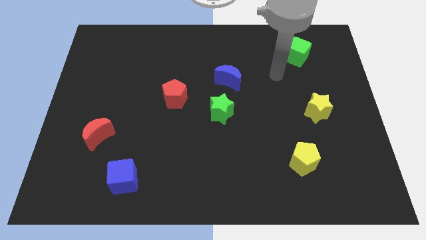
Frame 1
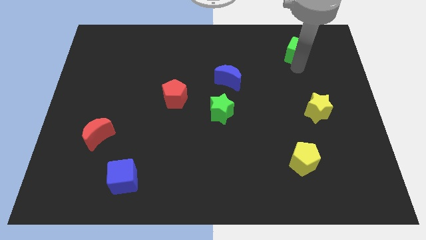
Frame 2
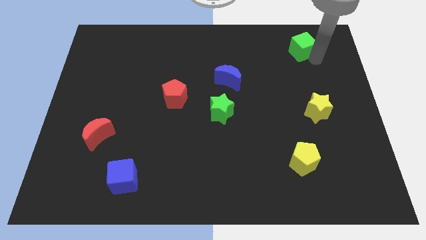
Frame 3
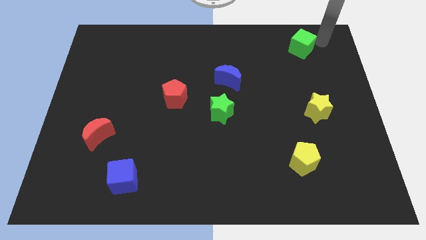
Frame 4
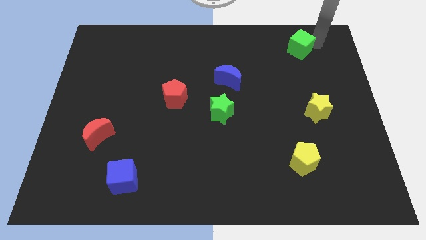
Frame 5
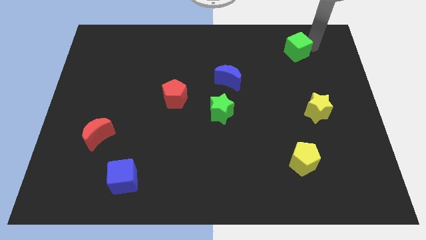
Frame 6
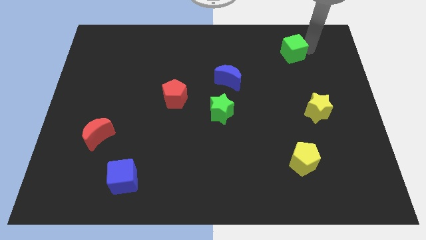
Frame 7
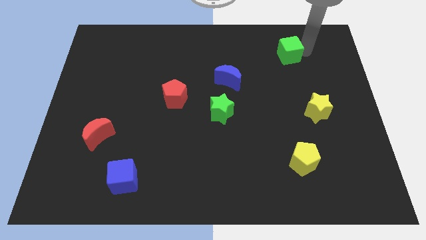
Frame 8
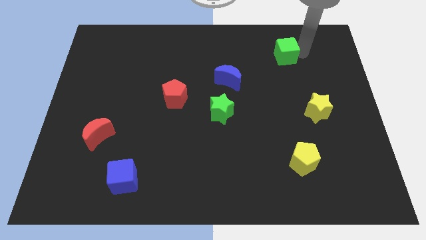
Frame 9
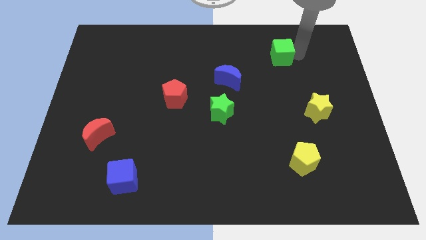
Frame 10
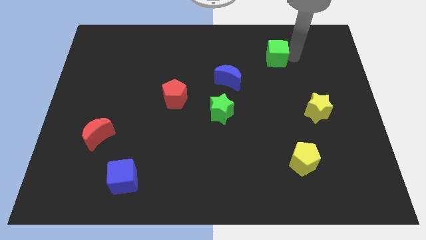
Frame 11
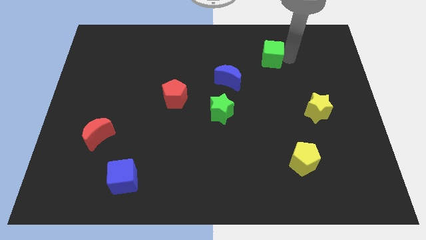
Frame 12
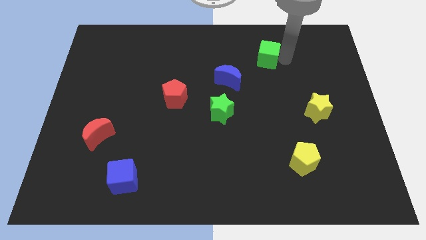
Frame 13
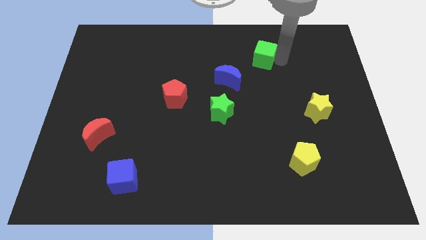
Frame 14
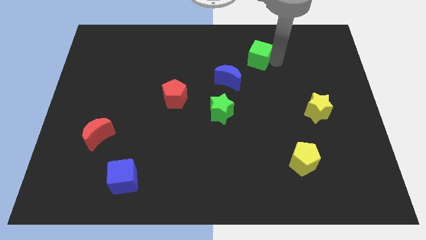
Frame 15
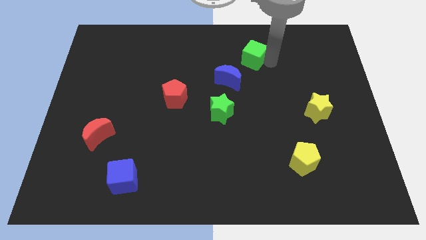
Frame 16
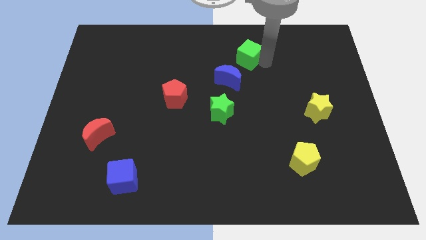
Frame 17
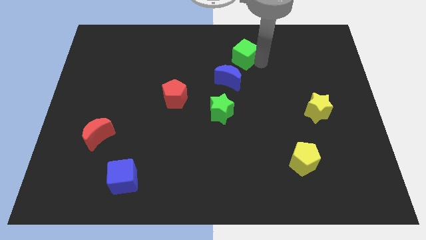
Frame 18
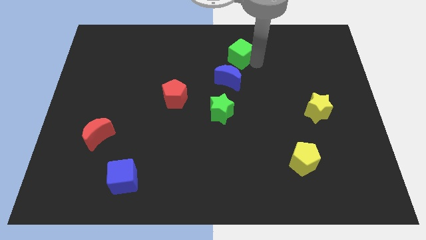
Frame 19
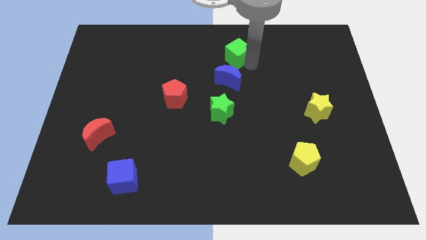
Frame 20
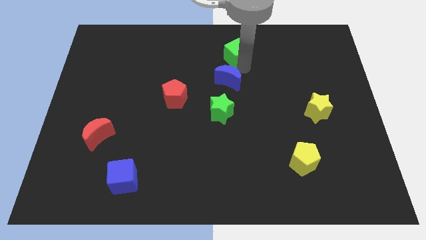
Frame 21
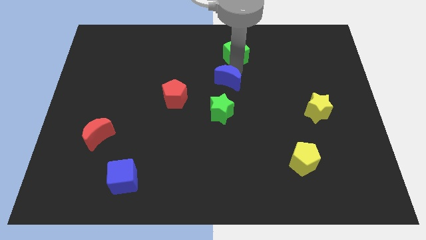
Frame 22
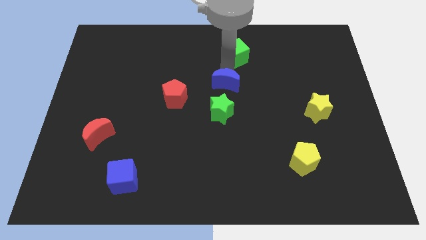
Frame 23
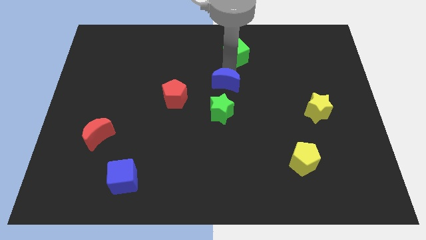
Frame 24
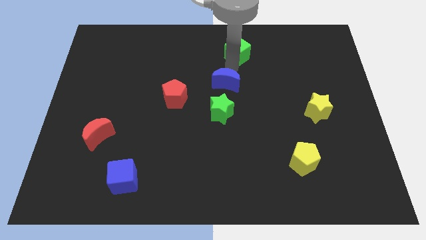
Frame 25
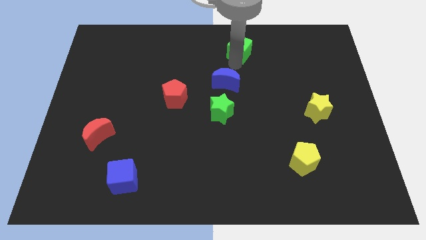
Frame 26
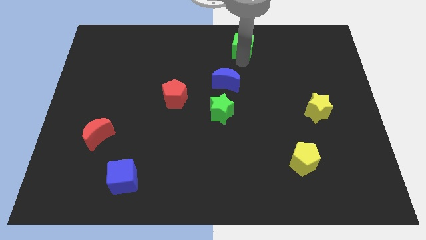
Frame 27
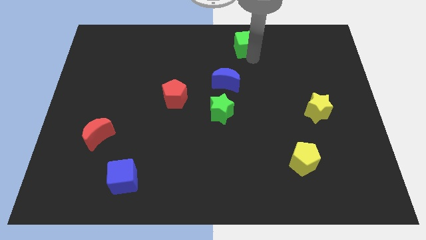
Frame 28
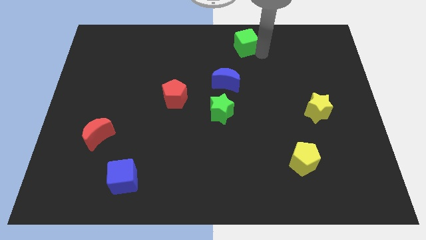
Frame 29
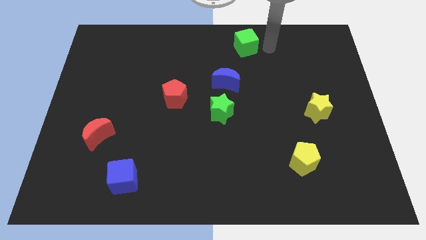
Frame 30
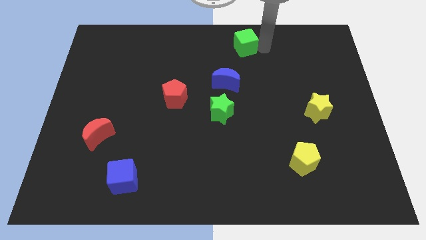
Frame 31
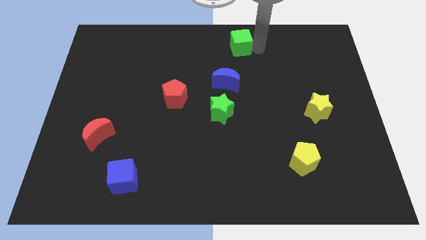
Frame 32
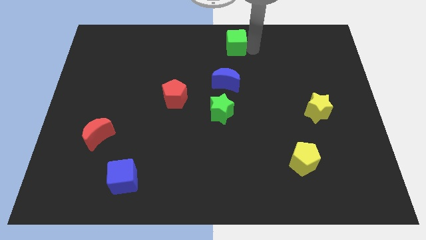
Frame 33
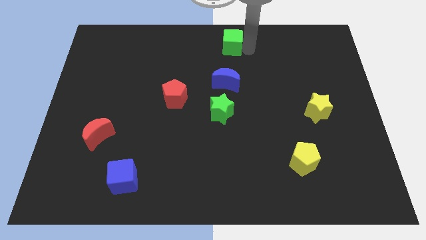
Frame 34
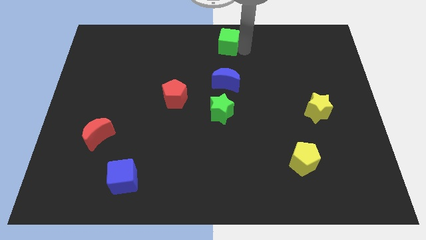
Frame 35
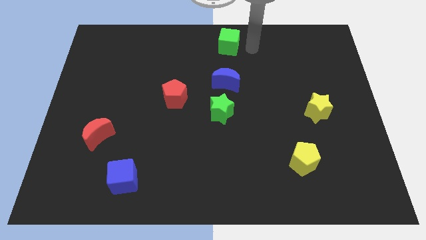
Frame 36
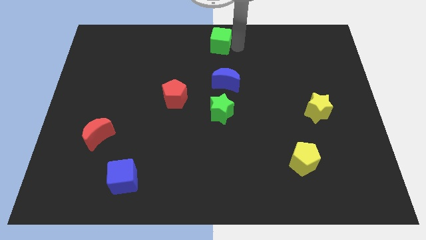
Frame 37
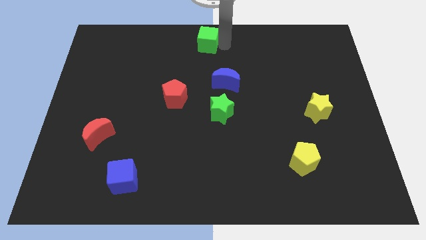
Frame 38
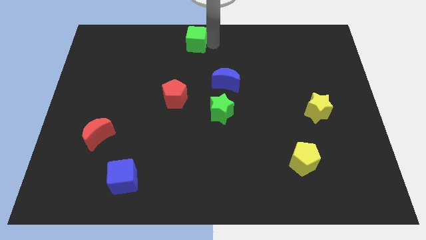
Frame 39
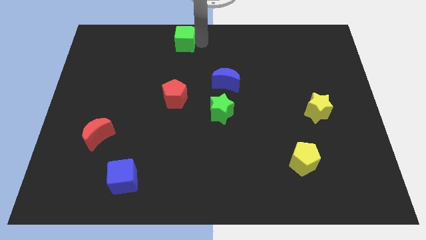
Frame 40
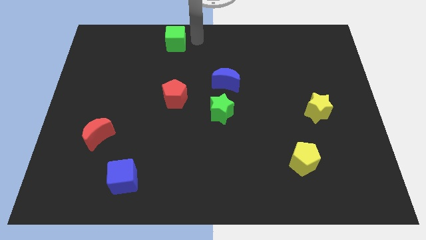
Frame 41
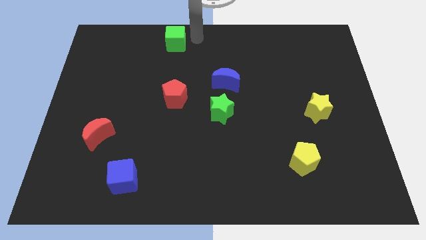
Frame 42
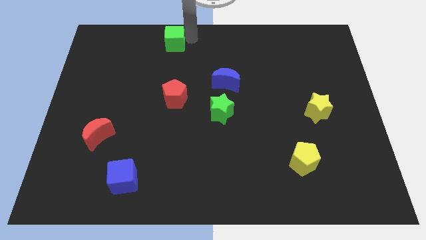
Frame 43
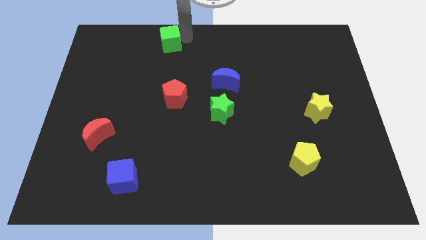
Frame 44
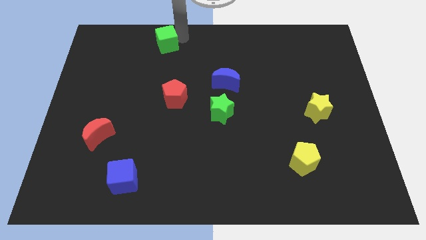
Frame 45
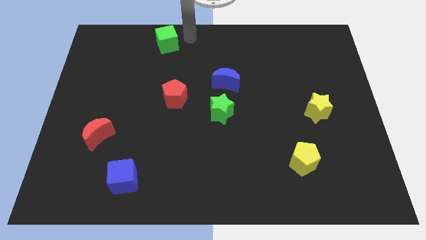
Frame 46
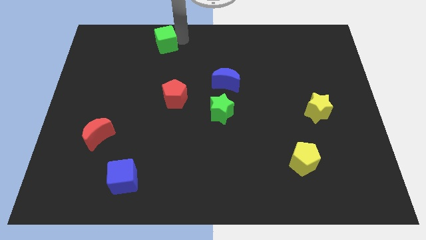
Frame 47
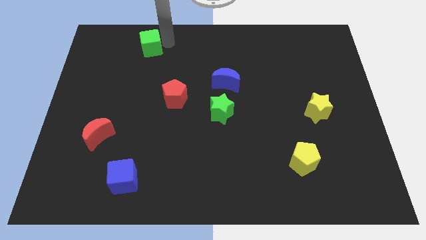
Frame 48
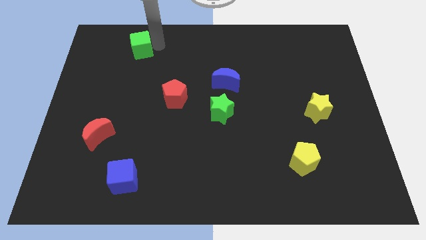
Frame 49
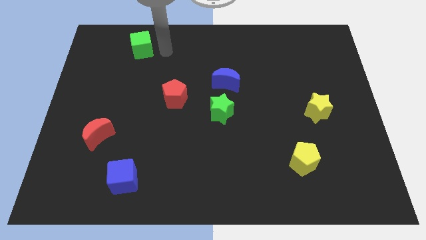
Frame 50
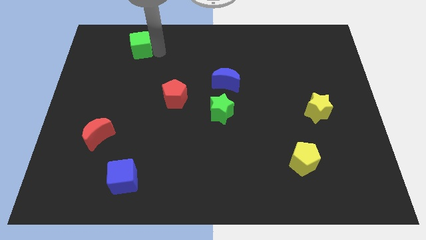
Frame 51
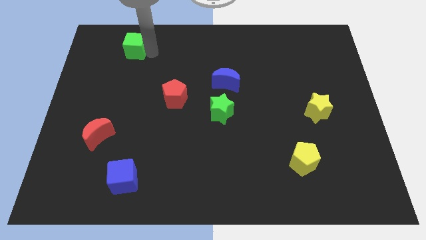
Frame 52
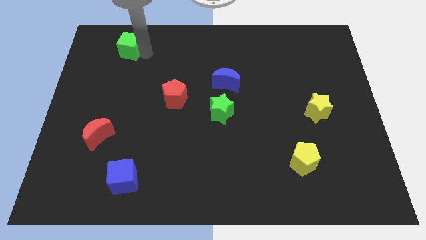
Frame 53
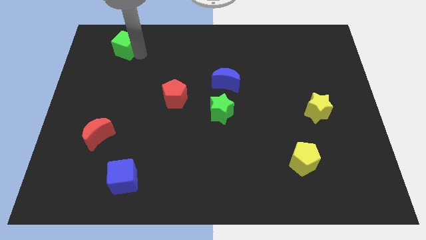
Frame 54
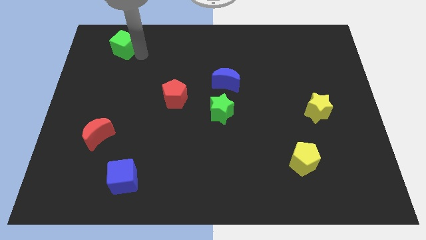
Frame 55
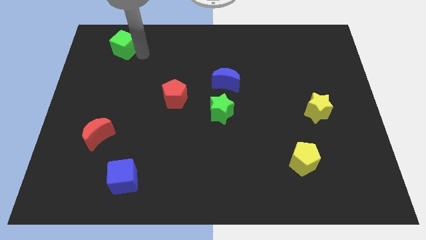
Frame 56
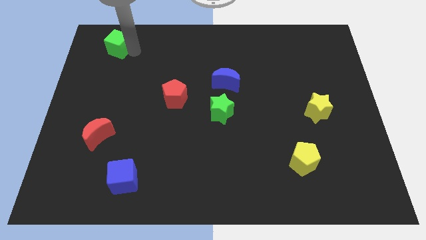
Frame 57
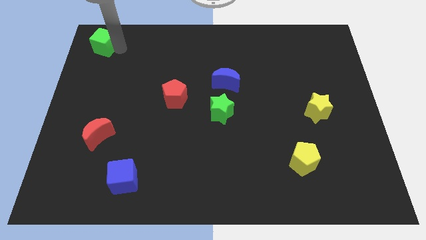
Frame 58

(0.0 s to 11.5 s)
slide the green cube to the top left corner

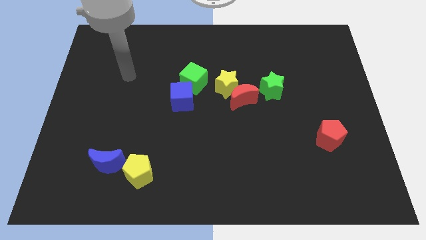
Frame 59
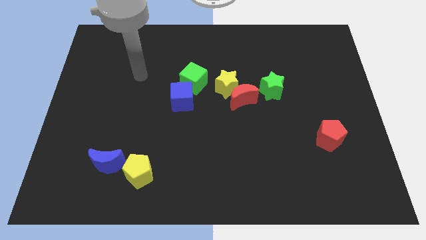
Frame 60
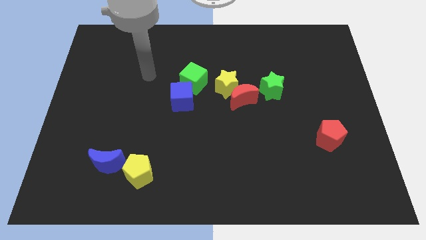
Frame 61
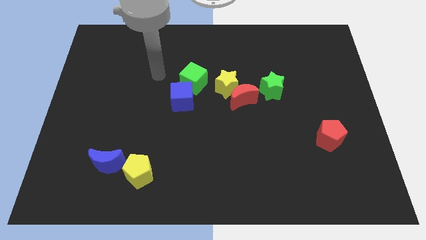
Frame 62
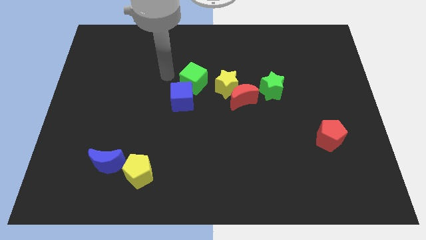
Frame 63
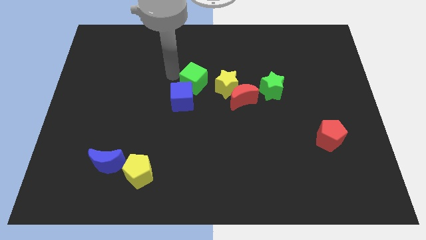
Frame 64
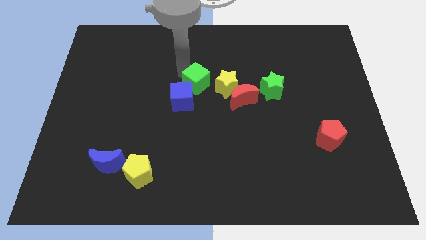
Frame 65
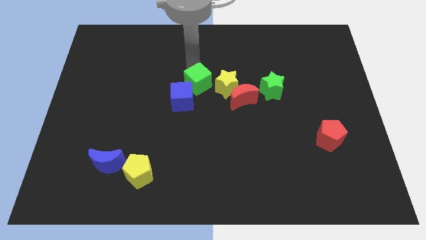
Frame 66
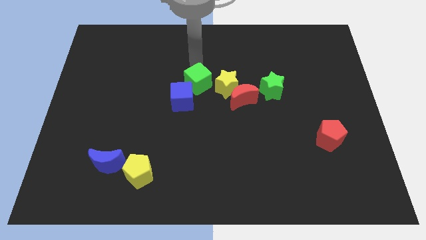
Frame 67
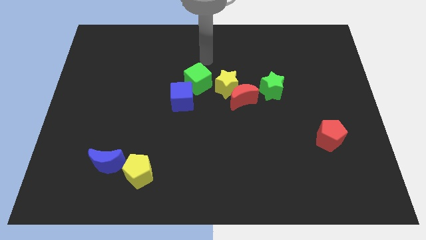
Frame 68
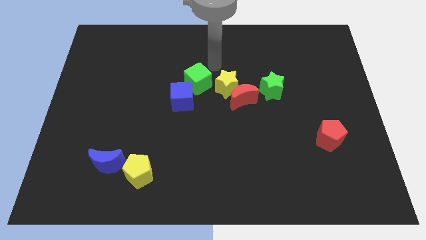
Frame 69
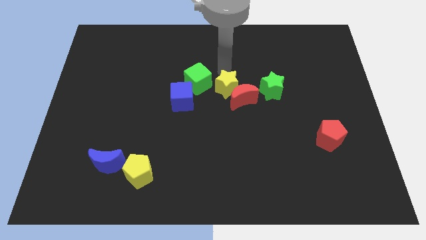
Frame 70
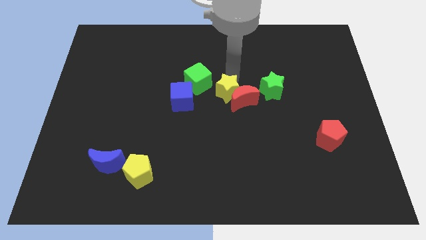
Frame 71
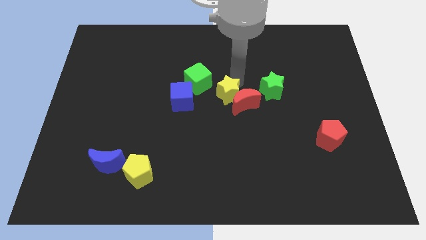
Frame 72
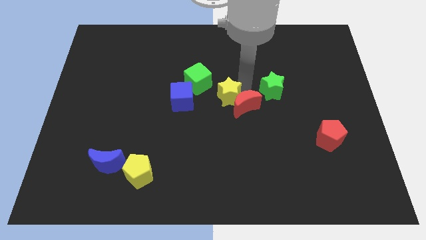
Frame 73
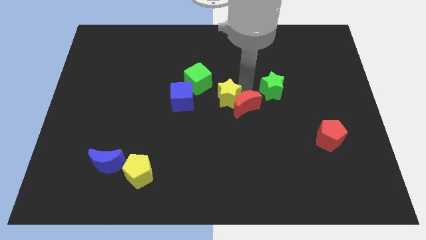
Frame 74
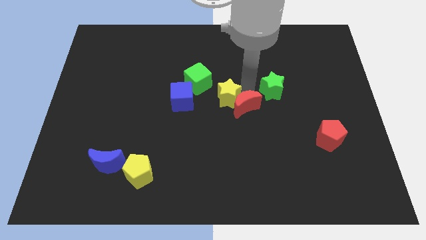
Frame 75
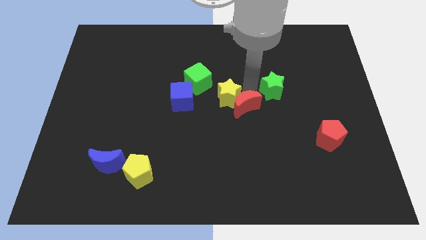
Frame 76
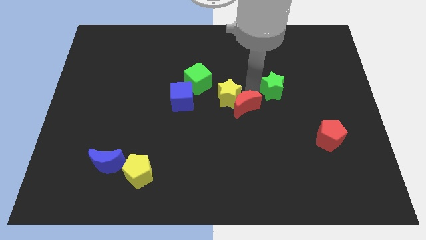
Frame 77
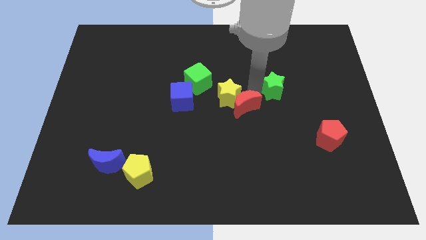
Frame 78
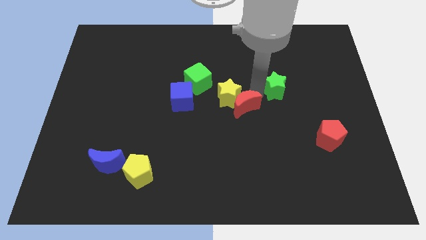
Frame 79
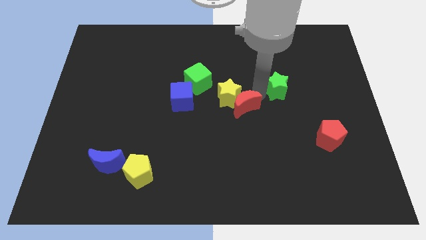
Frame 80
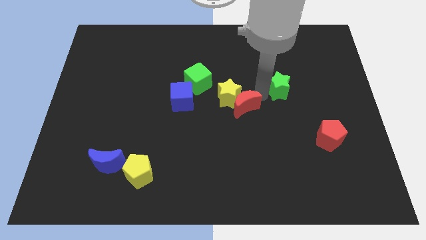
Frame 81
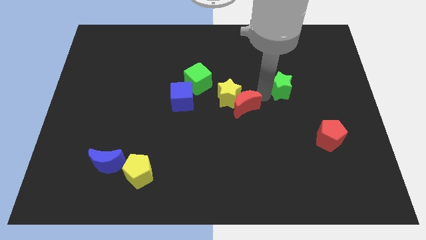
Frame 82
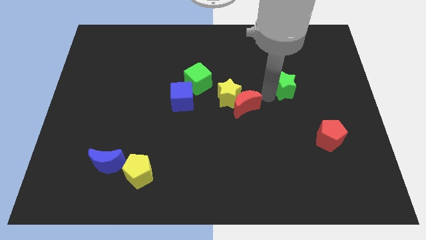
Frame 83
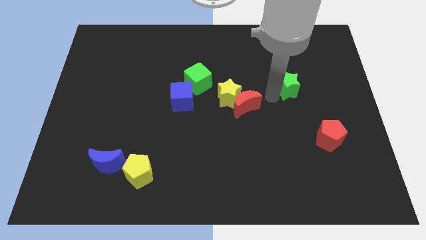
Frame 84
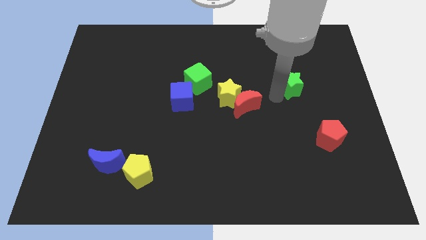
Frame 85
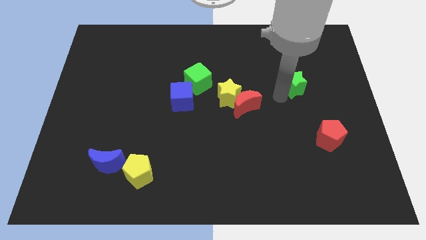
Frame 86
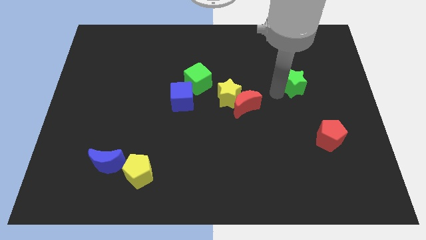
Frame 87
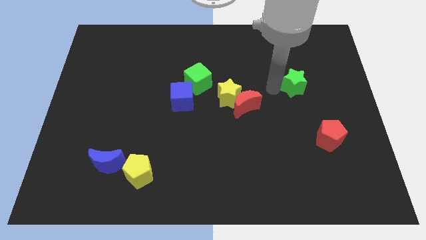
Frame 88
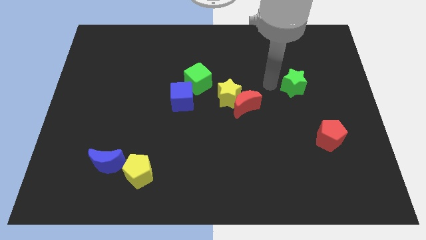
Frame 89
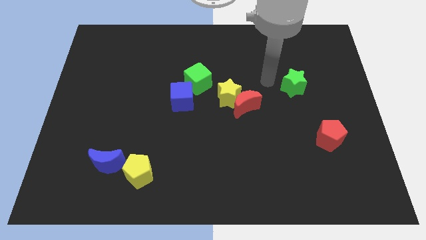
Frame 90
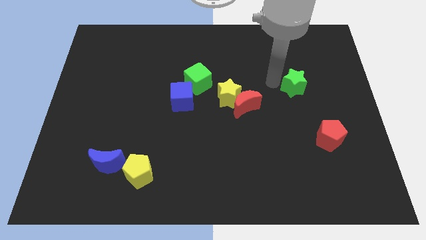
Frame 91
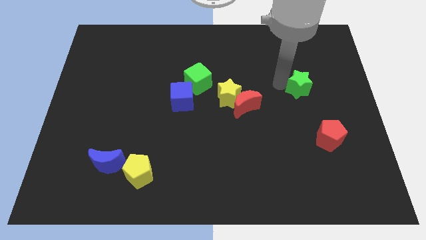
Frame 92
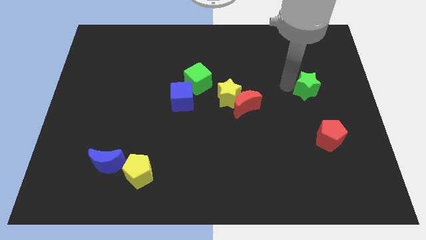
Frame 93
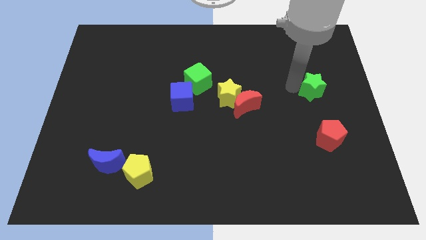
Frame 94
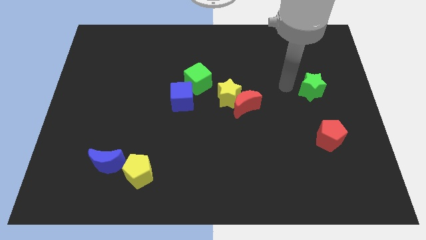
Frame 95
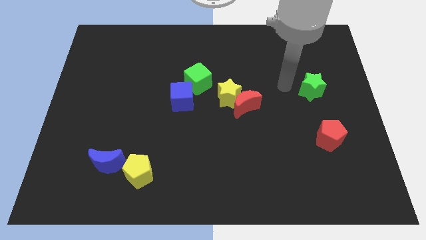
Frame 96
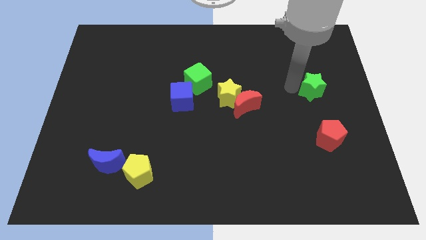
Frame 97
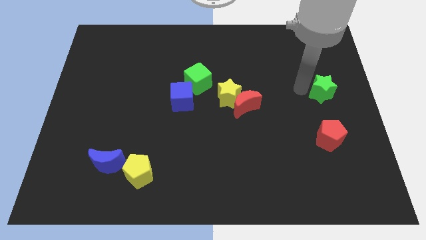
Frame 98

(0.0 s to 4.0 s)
put the green star to the center right
